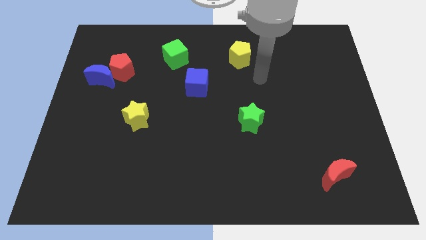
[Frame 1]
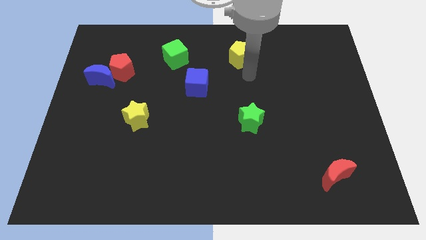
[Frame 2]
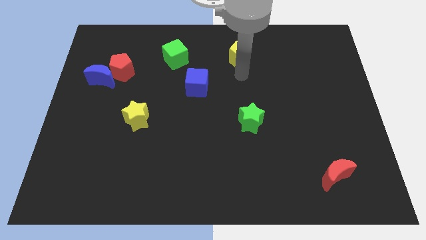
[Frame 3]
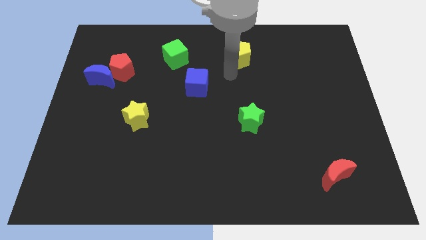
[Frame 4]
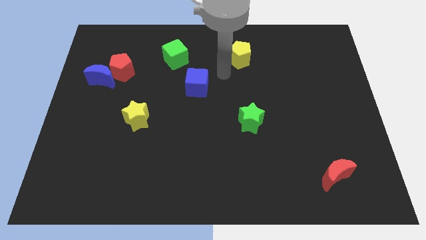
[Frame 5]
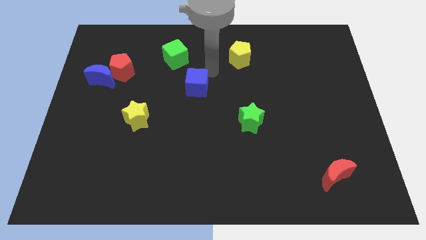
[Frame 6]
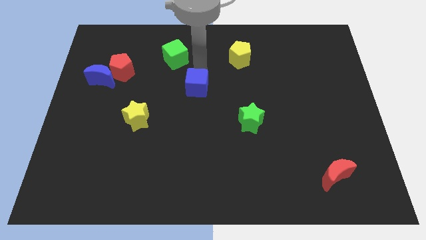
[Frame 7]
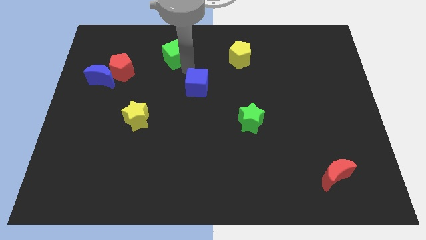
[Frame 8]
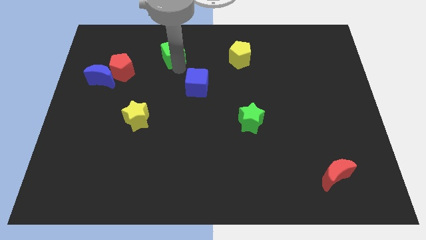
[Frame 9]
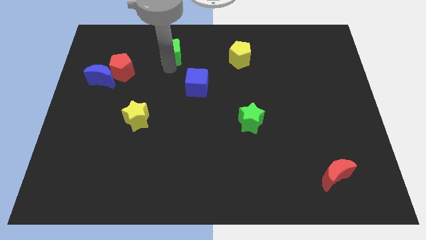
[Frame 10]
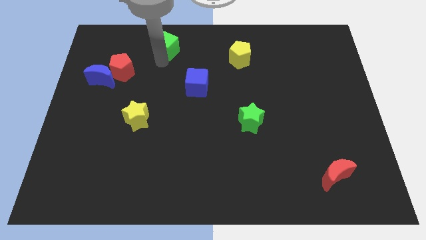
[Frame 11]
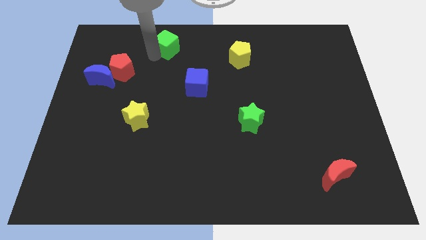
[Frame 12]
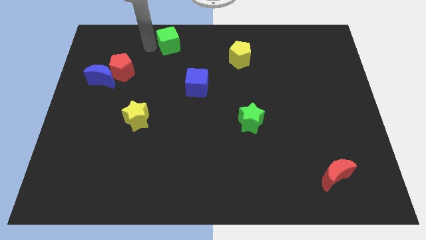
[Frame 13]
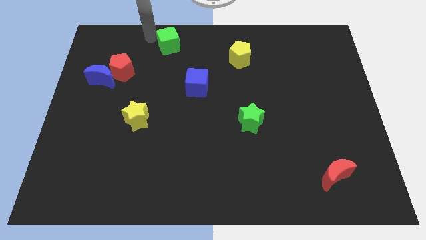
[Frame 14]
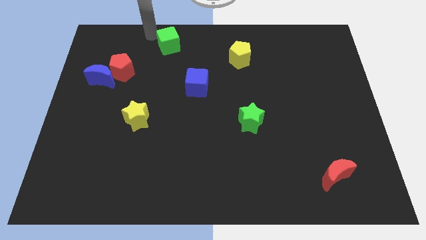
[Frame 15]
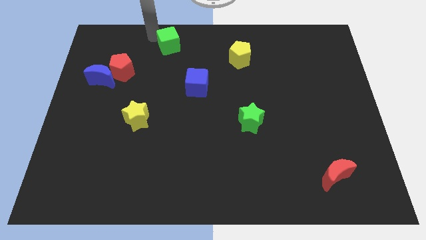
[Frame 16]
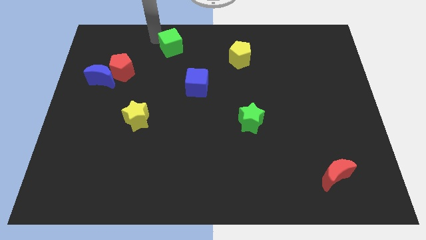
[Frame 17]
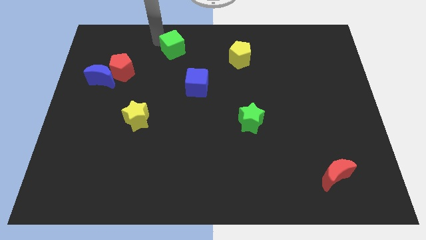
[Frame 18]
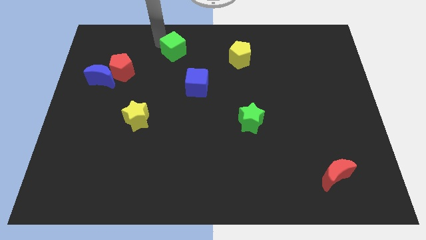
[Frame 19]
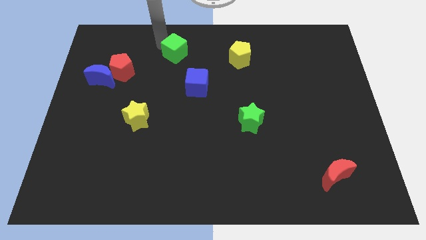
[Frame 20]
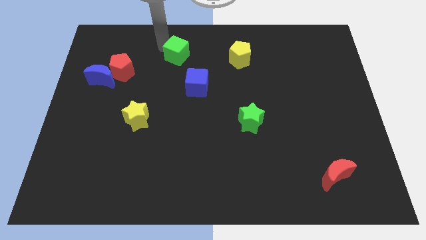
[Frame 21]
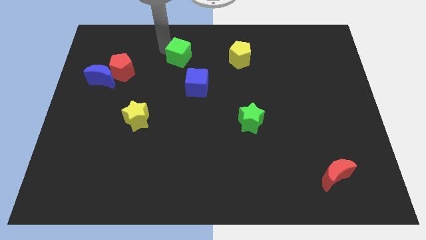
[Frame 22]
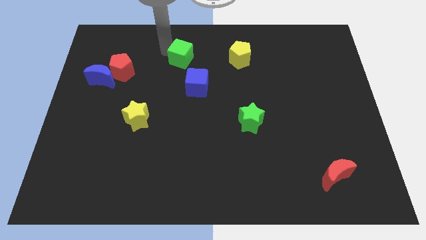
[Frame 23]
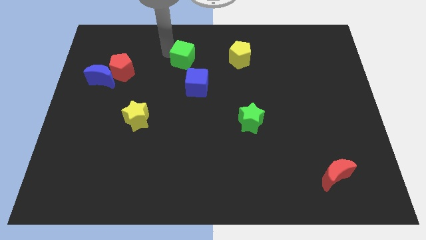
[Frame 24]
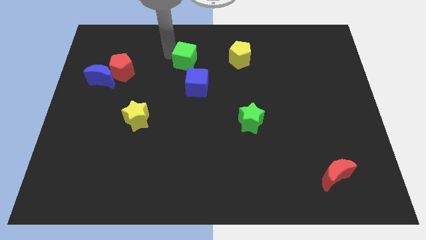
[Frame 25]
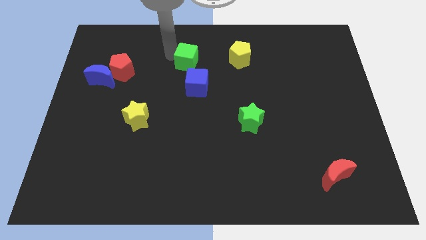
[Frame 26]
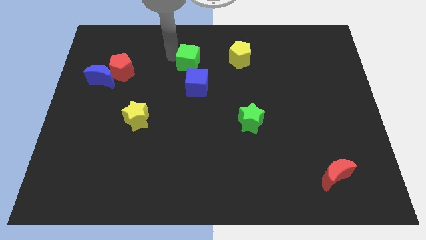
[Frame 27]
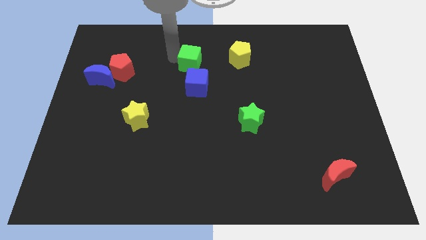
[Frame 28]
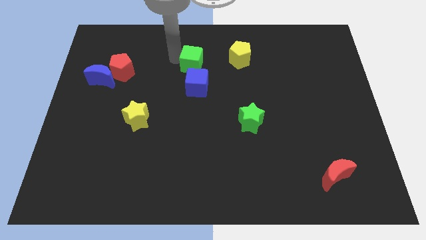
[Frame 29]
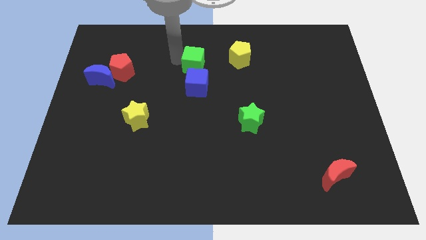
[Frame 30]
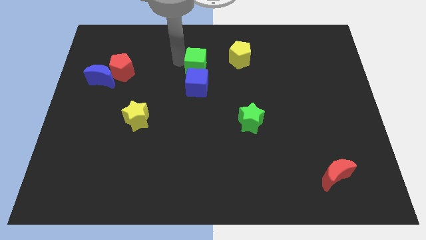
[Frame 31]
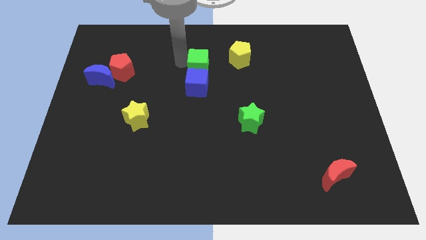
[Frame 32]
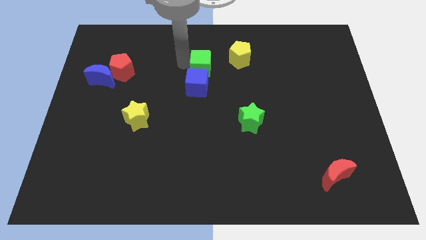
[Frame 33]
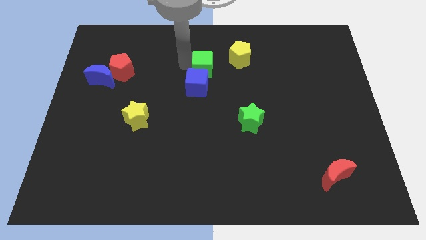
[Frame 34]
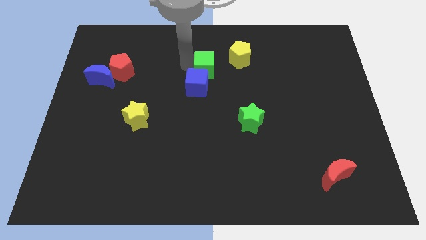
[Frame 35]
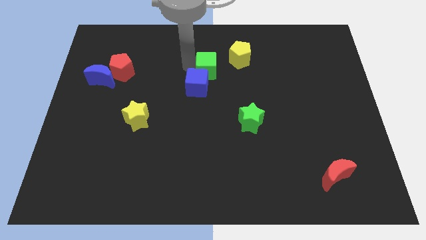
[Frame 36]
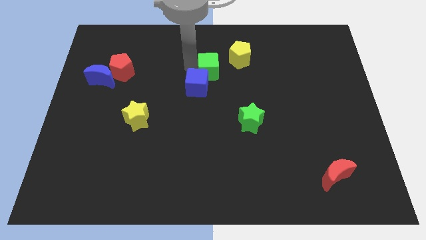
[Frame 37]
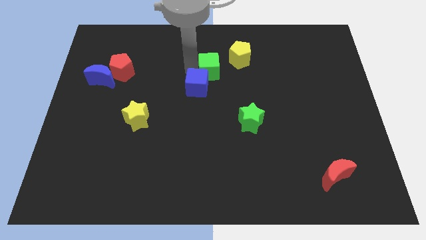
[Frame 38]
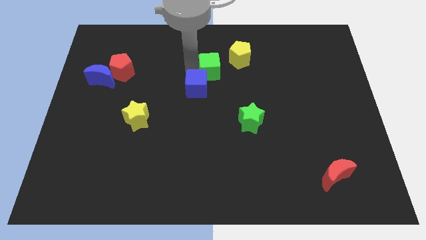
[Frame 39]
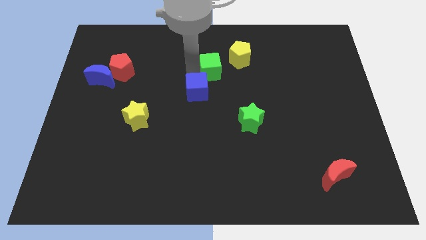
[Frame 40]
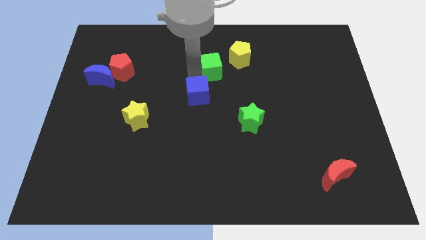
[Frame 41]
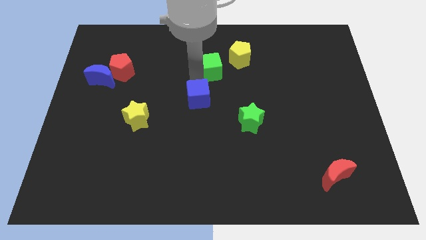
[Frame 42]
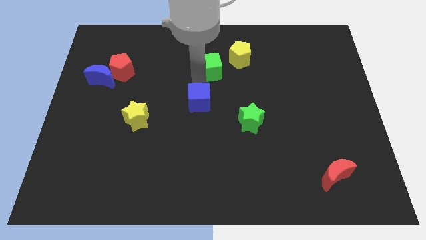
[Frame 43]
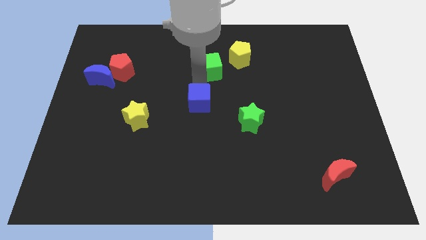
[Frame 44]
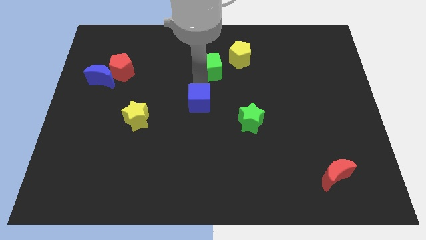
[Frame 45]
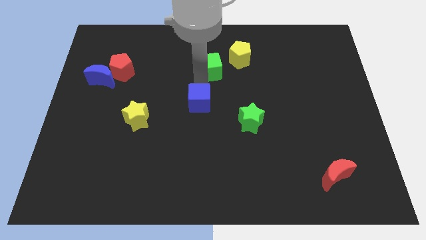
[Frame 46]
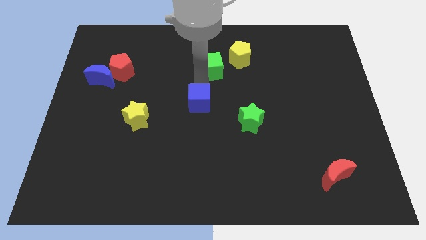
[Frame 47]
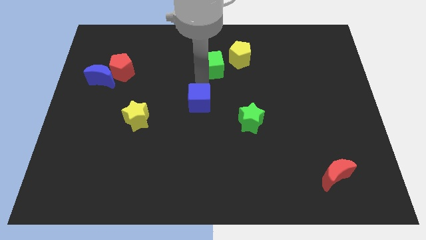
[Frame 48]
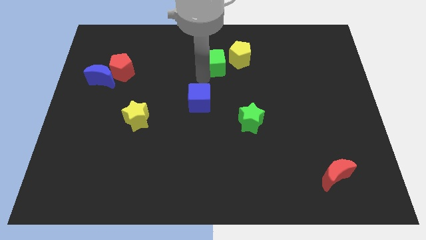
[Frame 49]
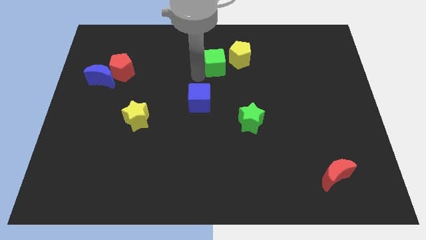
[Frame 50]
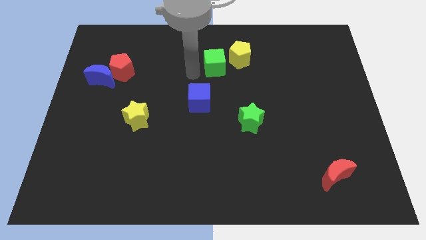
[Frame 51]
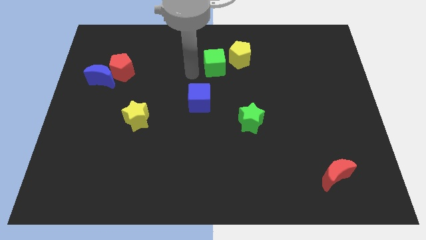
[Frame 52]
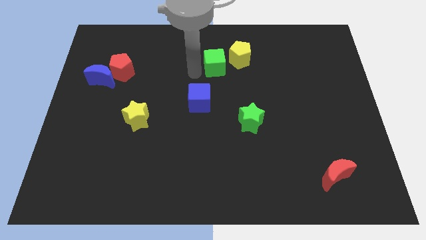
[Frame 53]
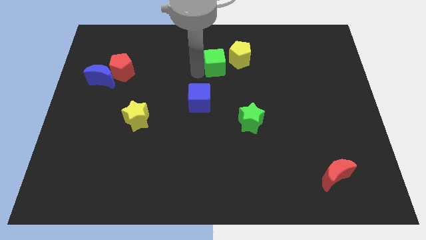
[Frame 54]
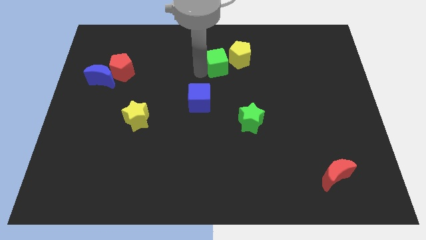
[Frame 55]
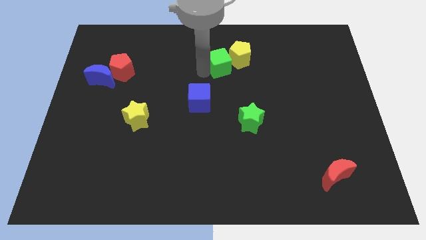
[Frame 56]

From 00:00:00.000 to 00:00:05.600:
push the green cube towards the yellow pentagon

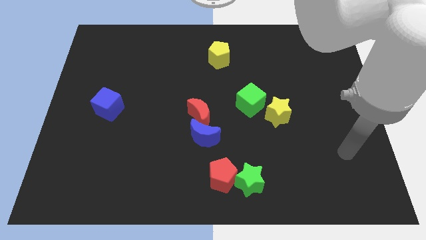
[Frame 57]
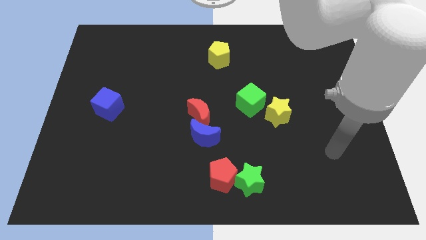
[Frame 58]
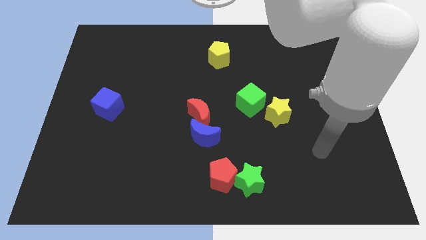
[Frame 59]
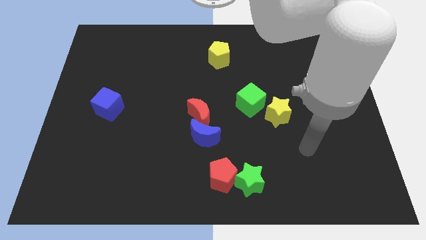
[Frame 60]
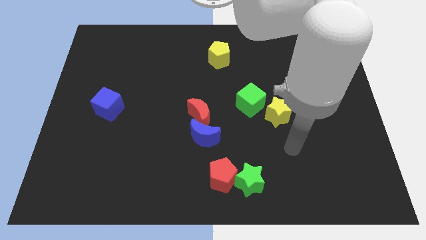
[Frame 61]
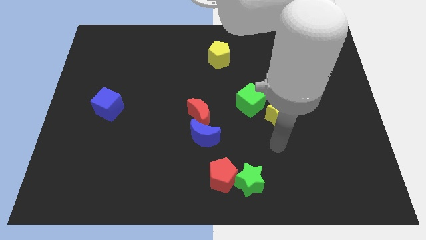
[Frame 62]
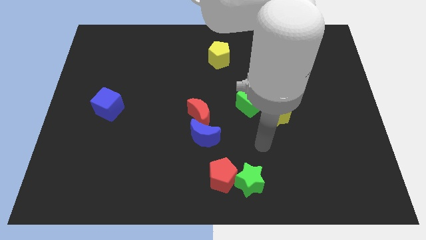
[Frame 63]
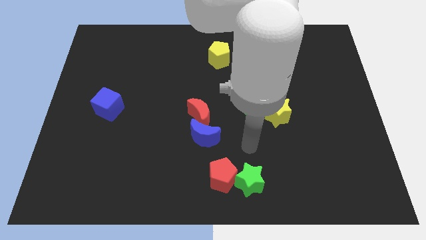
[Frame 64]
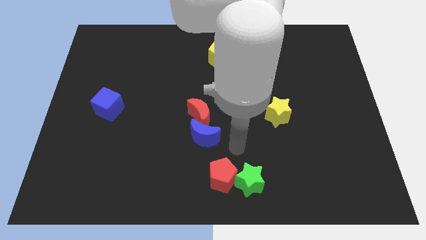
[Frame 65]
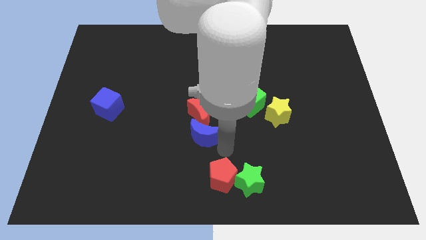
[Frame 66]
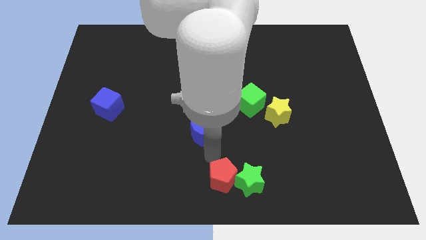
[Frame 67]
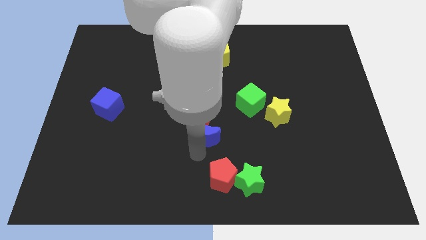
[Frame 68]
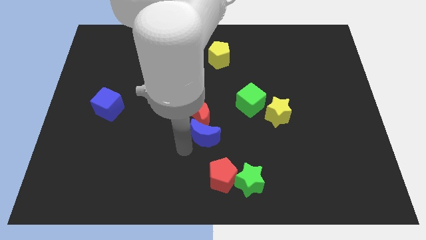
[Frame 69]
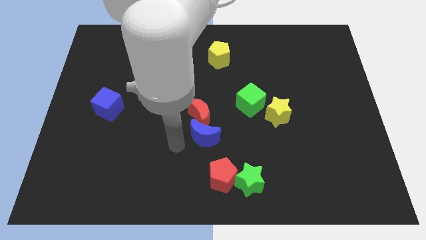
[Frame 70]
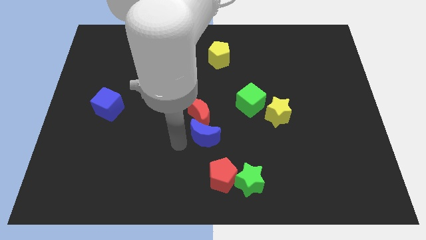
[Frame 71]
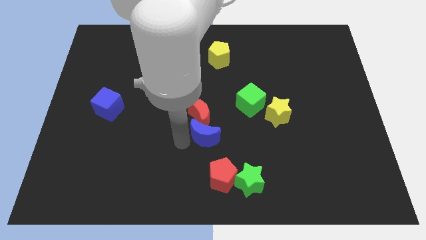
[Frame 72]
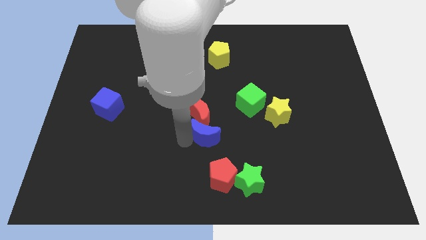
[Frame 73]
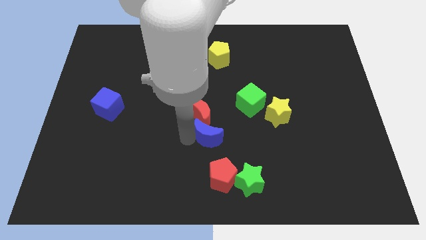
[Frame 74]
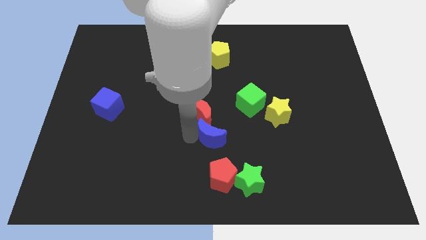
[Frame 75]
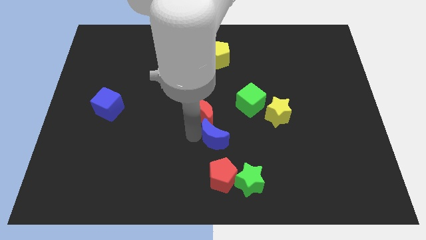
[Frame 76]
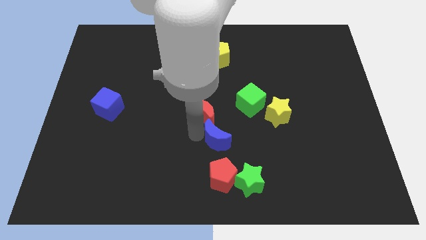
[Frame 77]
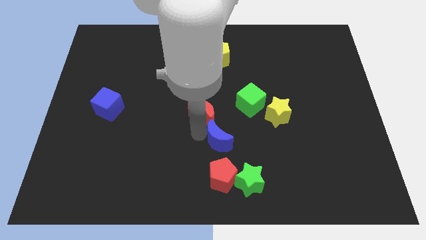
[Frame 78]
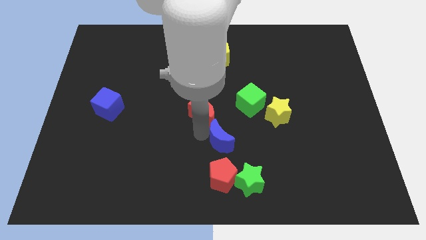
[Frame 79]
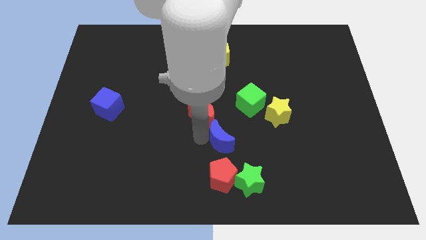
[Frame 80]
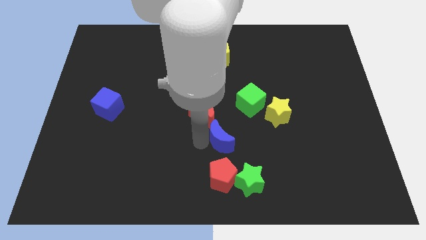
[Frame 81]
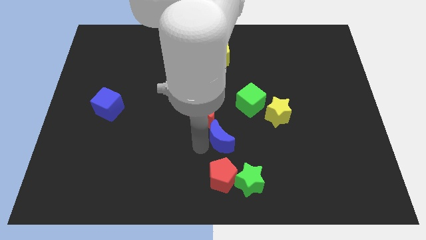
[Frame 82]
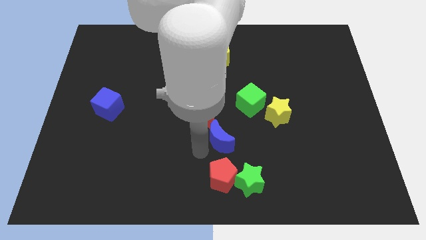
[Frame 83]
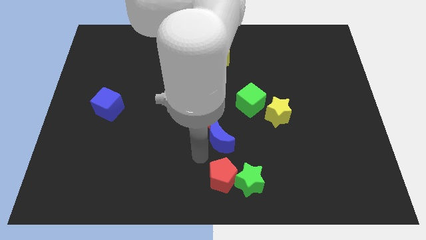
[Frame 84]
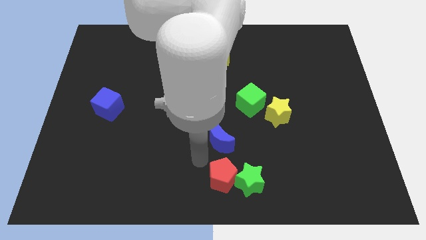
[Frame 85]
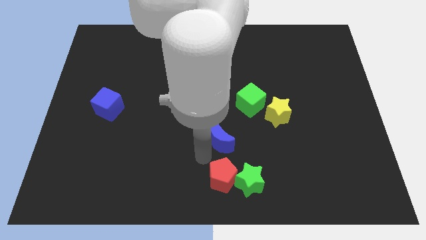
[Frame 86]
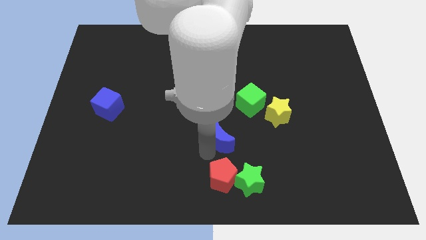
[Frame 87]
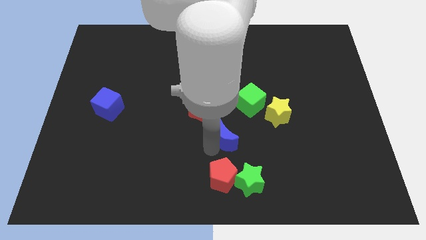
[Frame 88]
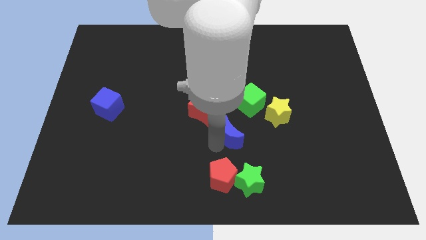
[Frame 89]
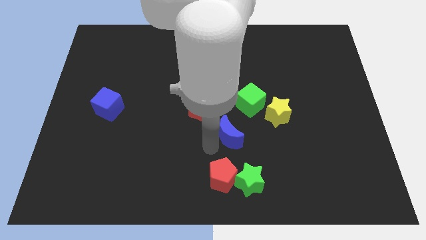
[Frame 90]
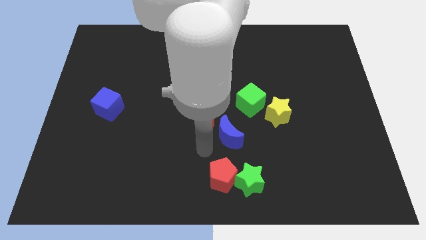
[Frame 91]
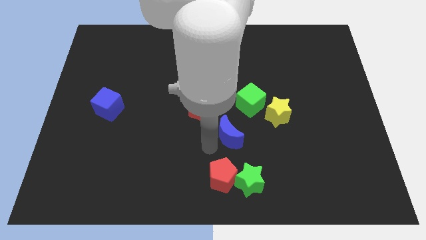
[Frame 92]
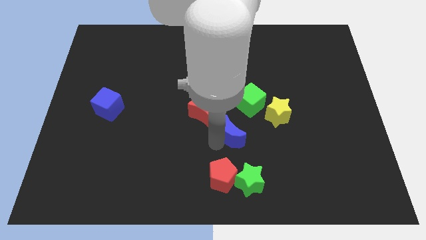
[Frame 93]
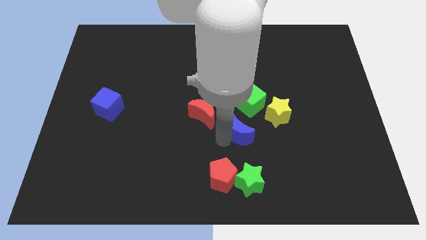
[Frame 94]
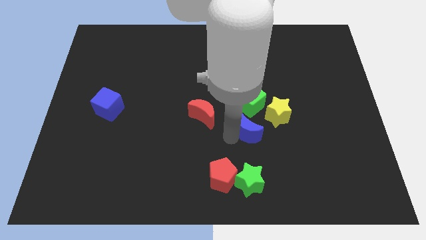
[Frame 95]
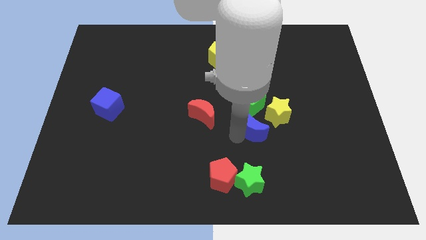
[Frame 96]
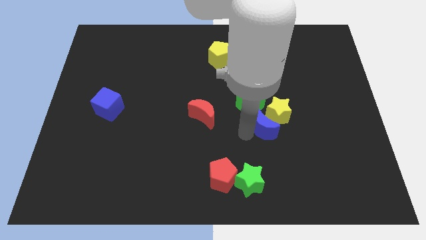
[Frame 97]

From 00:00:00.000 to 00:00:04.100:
move the blue moon close to the yellow star
